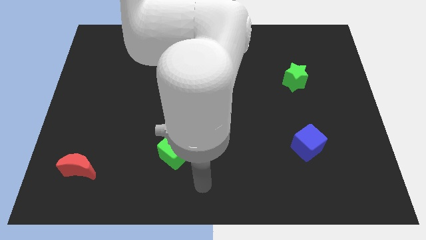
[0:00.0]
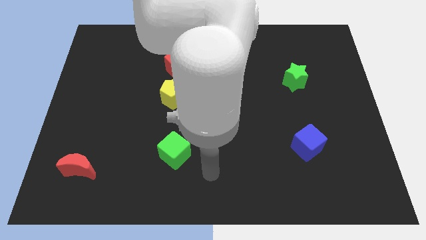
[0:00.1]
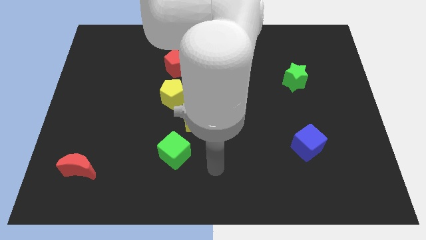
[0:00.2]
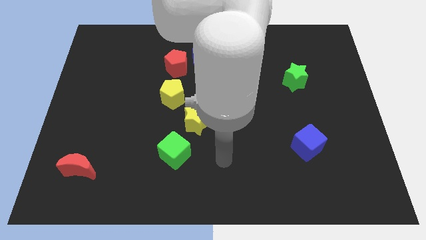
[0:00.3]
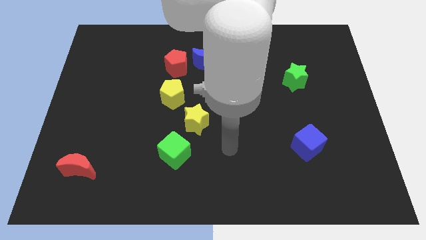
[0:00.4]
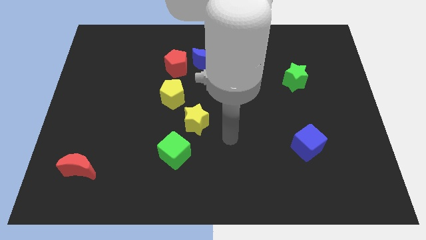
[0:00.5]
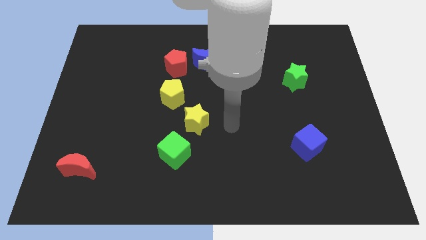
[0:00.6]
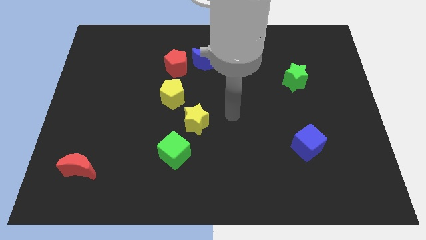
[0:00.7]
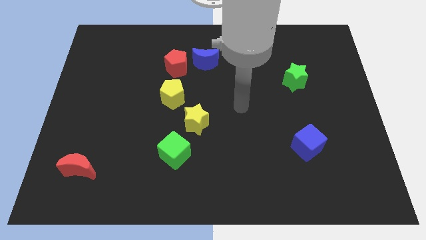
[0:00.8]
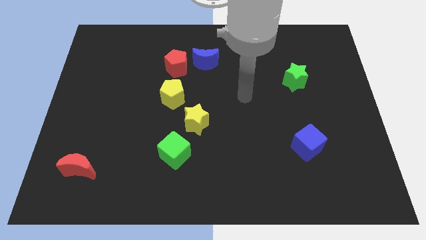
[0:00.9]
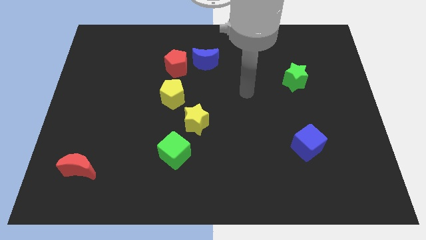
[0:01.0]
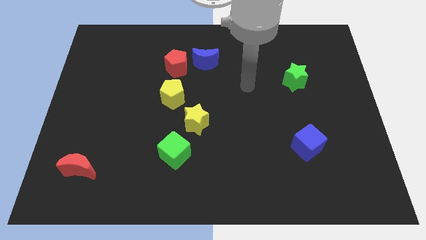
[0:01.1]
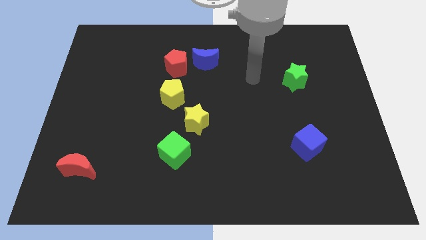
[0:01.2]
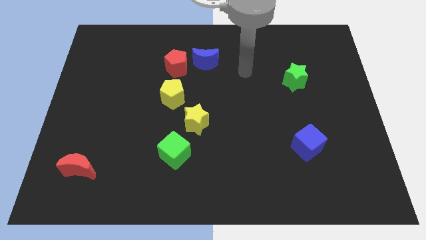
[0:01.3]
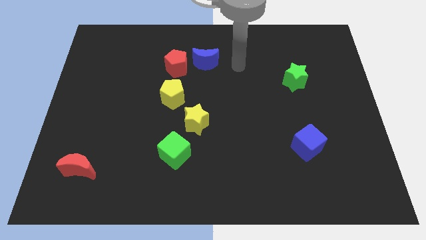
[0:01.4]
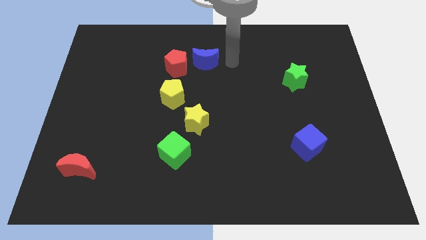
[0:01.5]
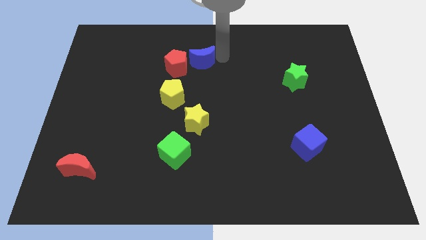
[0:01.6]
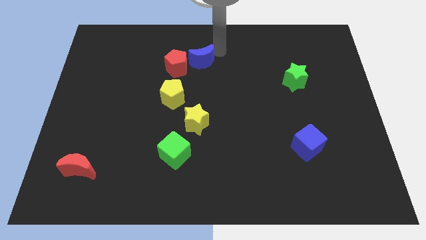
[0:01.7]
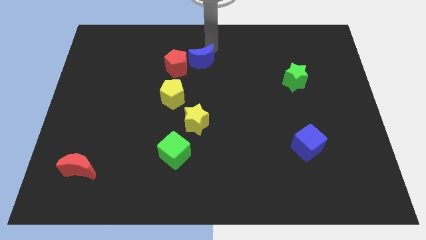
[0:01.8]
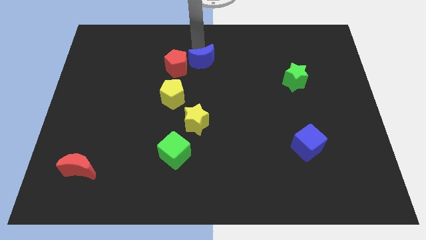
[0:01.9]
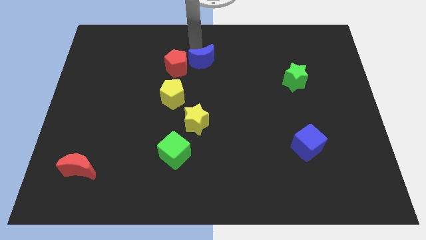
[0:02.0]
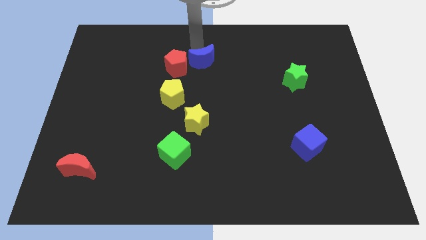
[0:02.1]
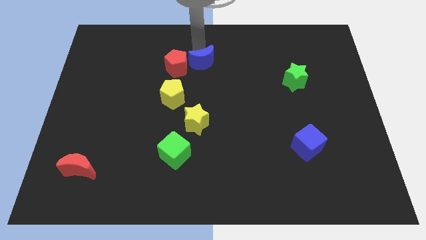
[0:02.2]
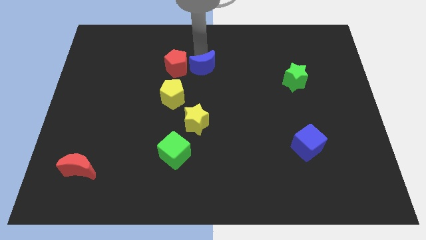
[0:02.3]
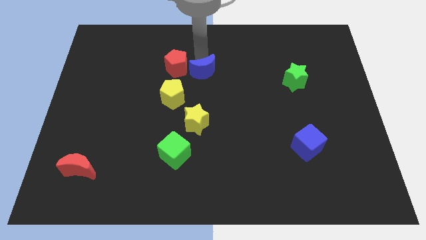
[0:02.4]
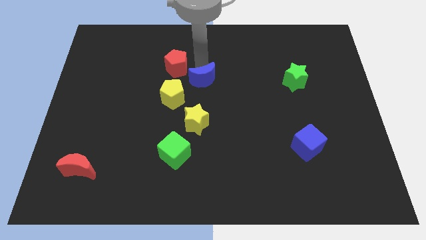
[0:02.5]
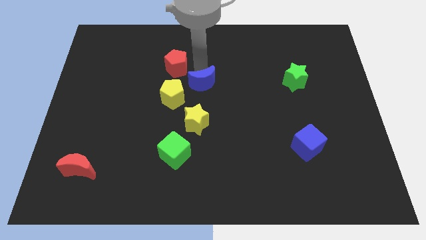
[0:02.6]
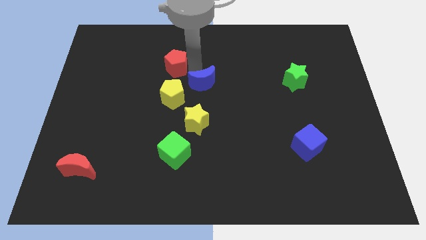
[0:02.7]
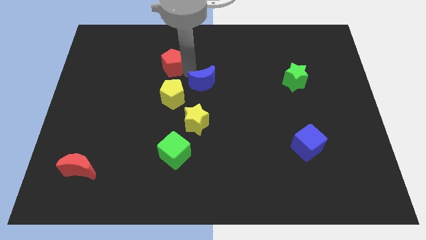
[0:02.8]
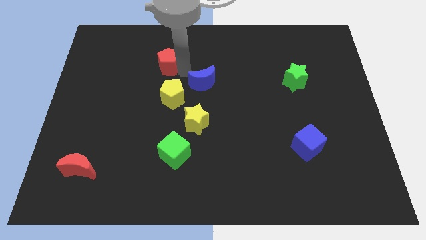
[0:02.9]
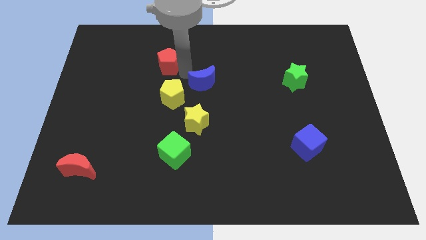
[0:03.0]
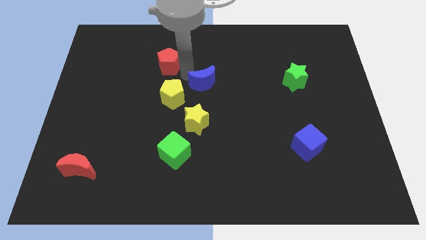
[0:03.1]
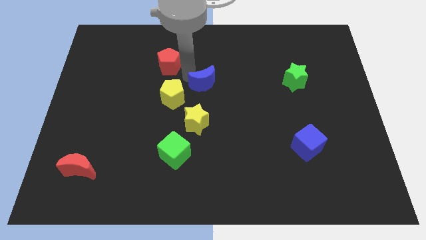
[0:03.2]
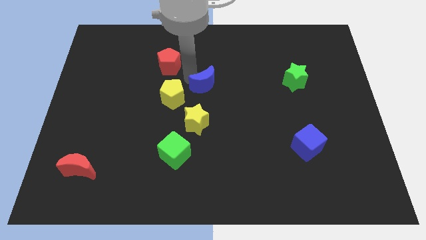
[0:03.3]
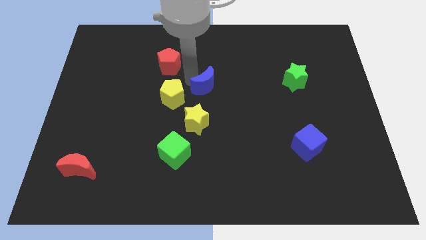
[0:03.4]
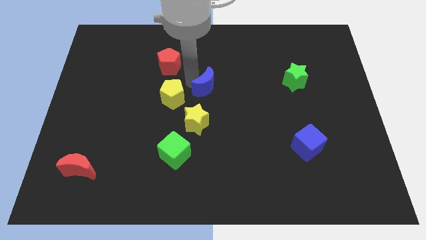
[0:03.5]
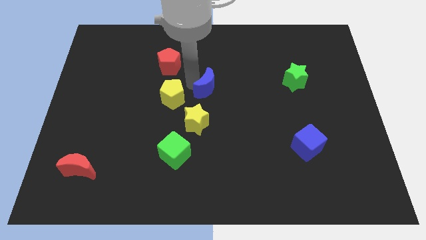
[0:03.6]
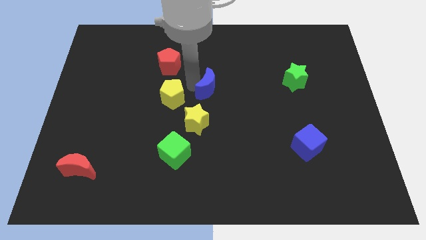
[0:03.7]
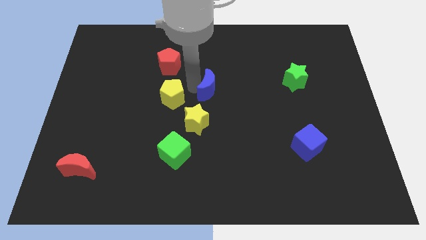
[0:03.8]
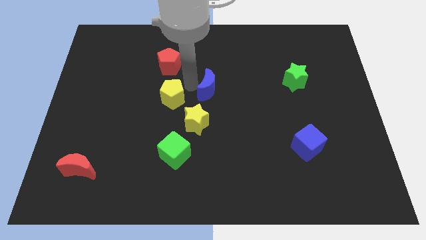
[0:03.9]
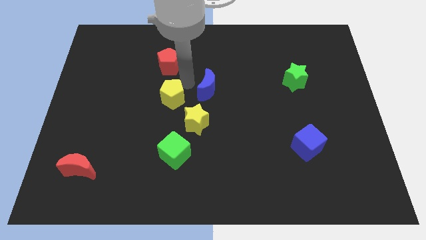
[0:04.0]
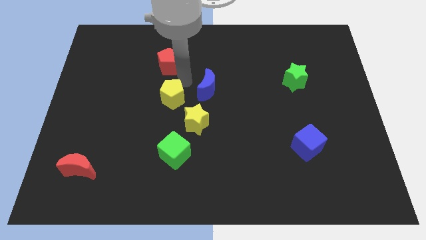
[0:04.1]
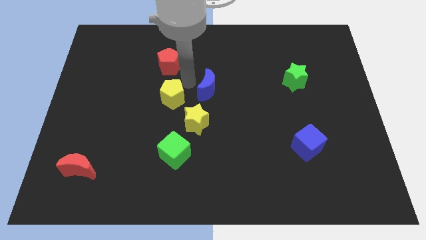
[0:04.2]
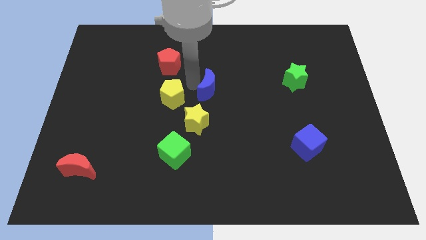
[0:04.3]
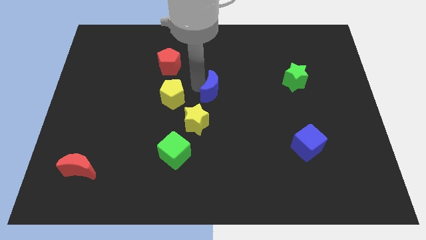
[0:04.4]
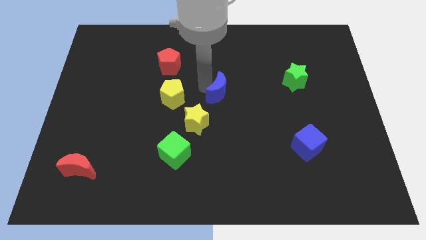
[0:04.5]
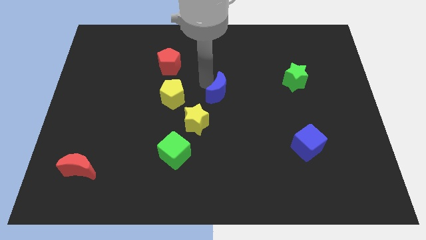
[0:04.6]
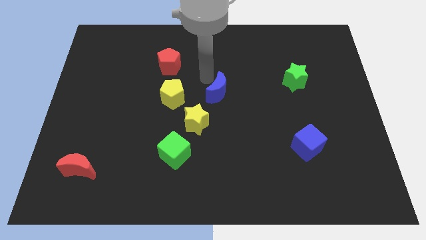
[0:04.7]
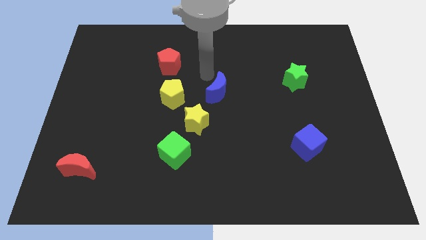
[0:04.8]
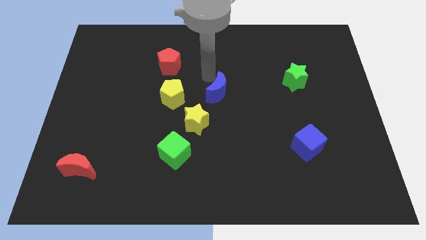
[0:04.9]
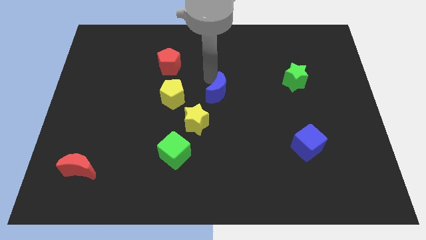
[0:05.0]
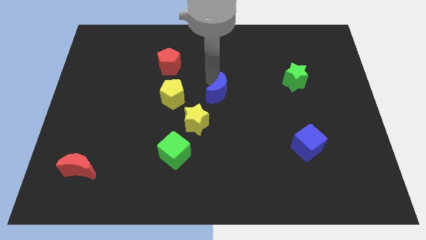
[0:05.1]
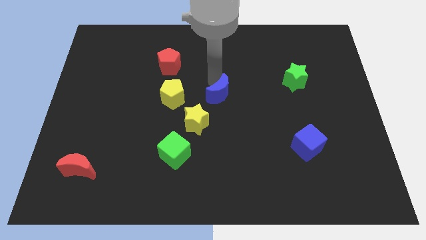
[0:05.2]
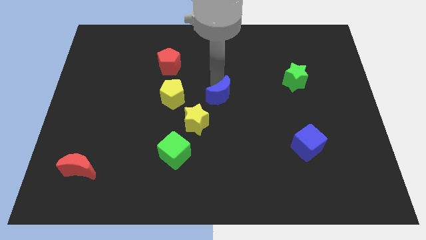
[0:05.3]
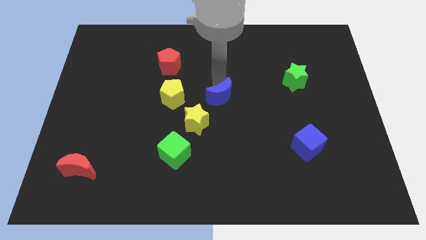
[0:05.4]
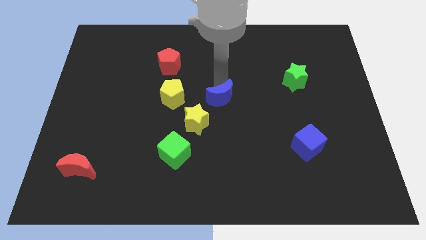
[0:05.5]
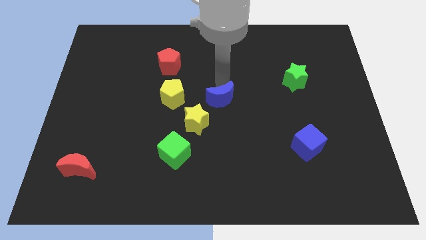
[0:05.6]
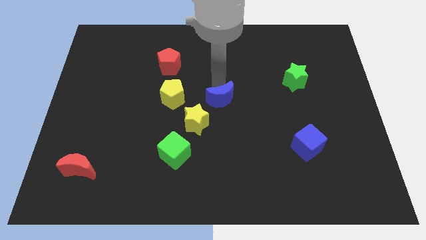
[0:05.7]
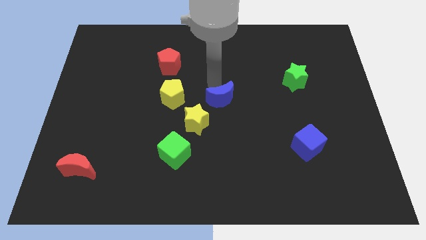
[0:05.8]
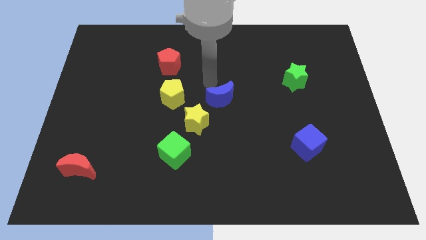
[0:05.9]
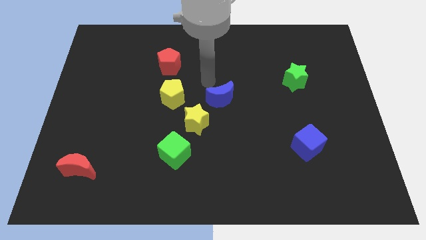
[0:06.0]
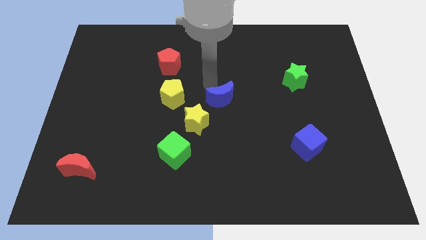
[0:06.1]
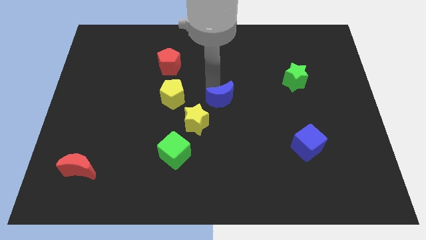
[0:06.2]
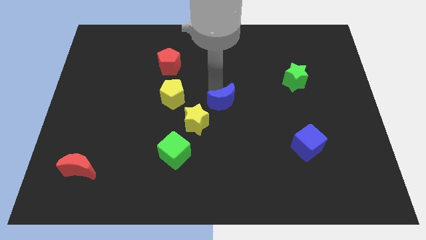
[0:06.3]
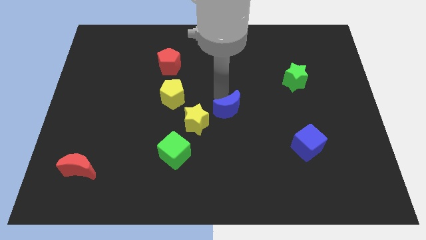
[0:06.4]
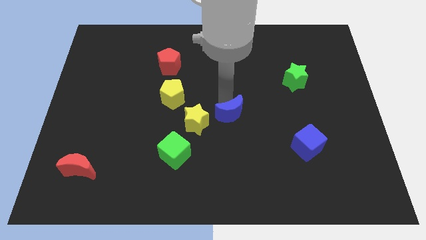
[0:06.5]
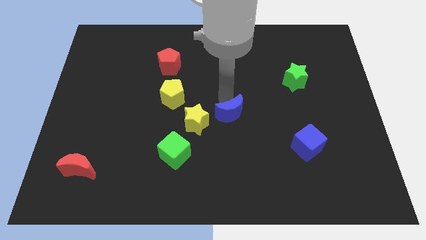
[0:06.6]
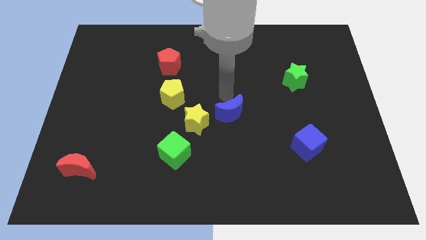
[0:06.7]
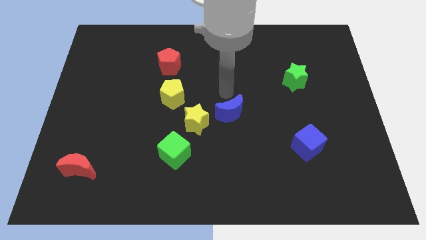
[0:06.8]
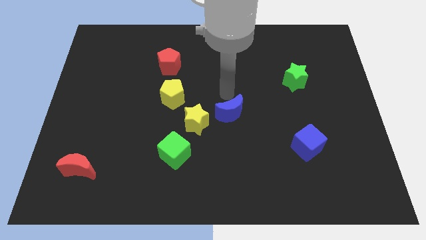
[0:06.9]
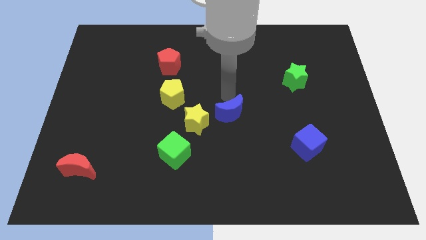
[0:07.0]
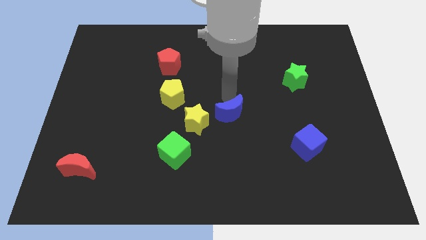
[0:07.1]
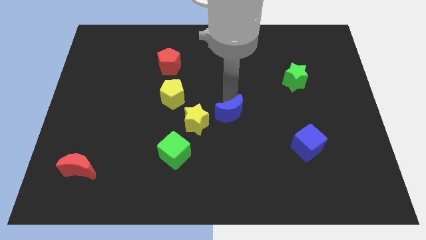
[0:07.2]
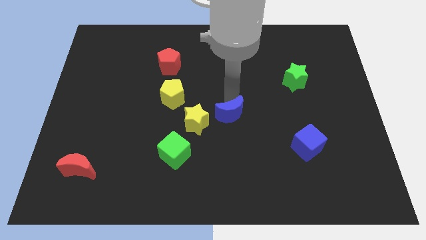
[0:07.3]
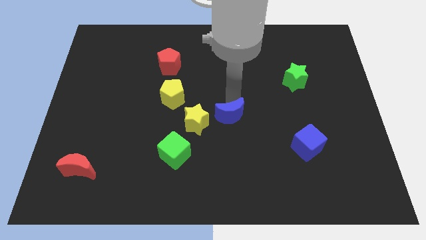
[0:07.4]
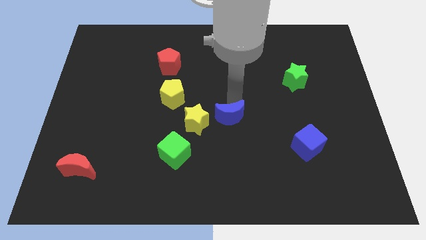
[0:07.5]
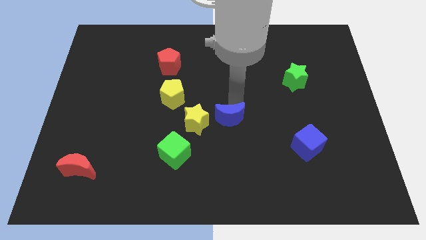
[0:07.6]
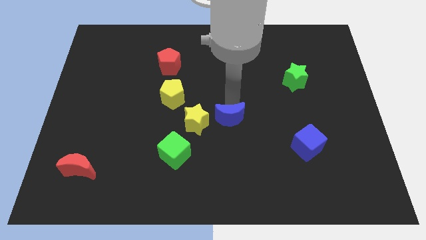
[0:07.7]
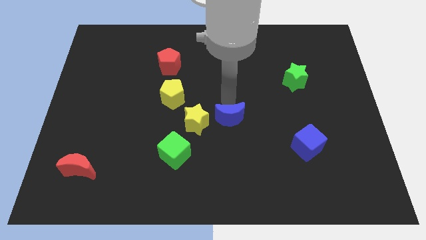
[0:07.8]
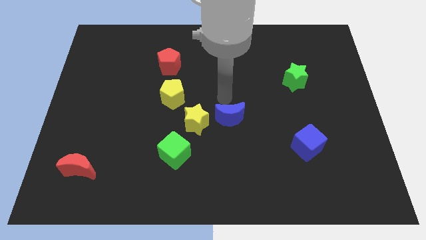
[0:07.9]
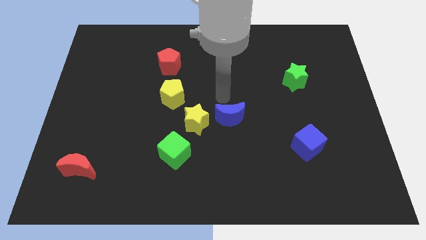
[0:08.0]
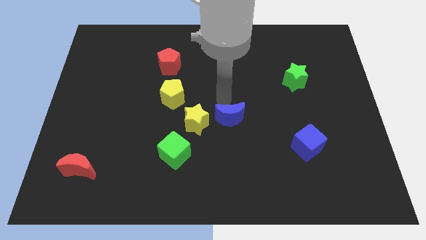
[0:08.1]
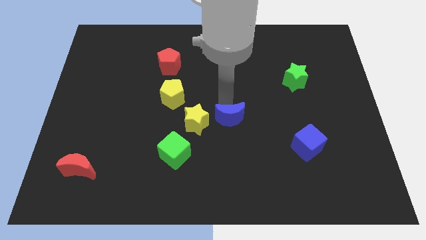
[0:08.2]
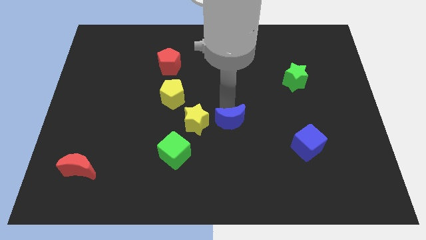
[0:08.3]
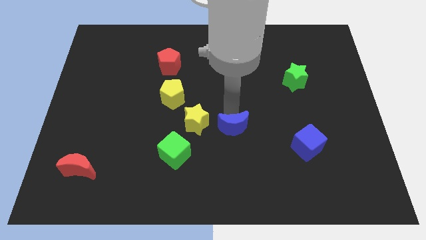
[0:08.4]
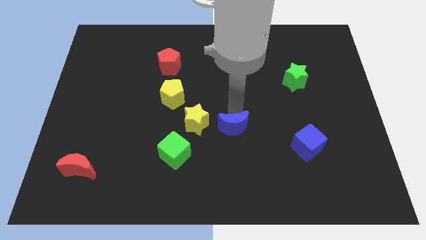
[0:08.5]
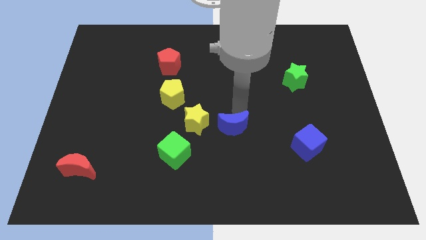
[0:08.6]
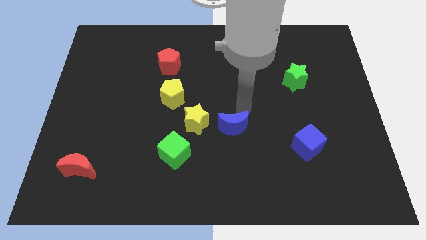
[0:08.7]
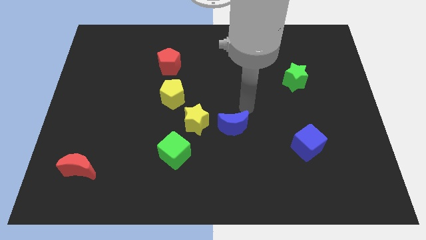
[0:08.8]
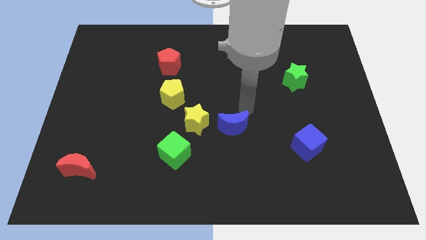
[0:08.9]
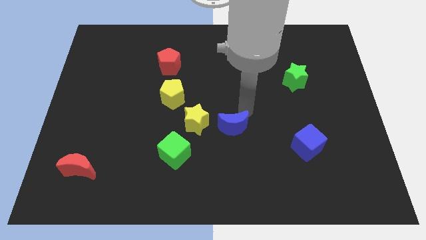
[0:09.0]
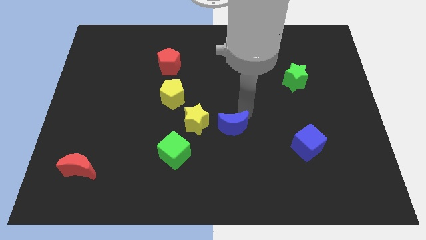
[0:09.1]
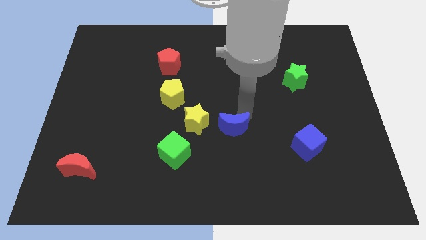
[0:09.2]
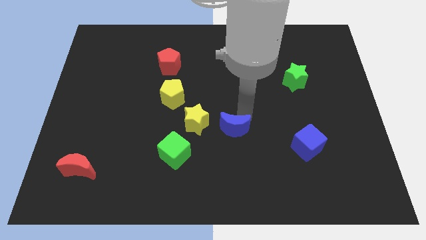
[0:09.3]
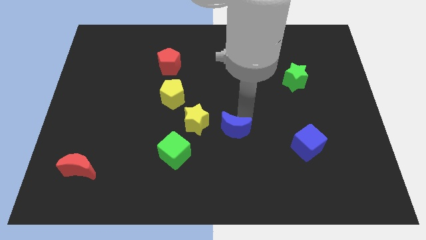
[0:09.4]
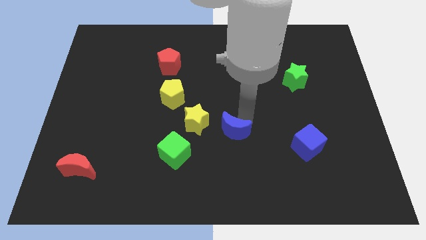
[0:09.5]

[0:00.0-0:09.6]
slide the blue moon down
